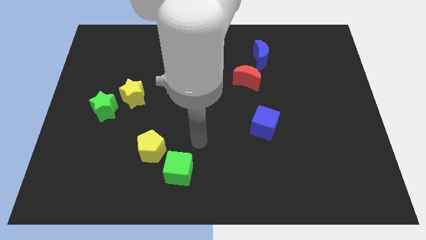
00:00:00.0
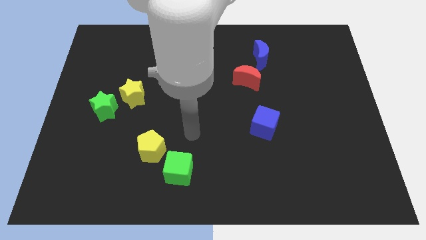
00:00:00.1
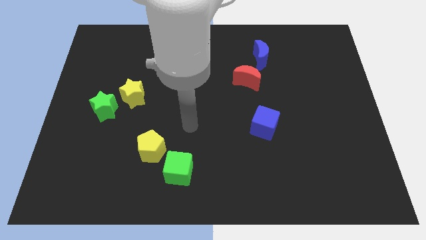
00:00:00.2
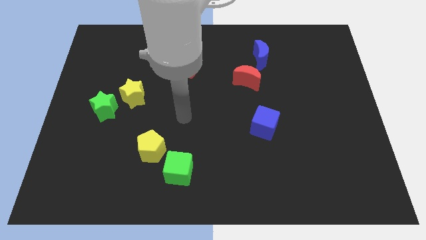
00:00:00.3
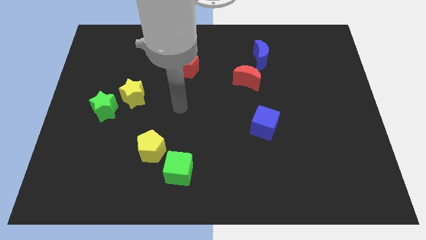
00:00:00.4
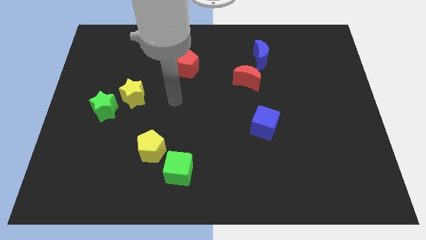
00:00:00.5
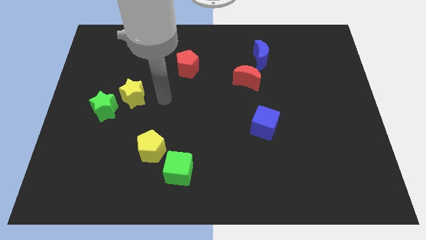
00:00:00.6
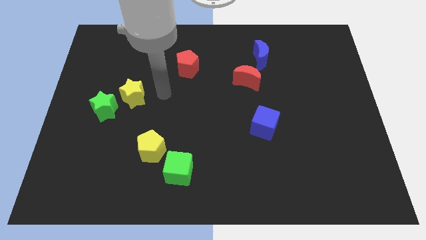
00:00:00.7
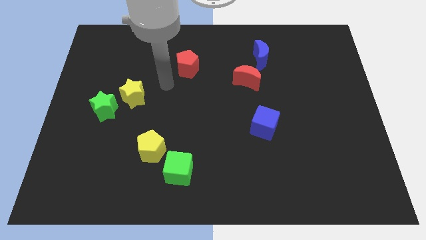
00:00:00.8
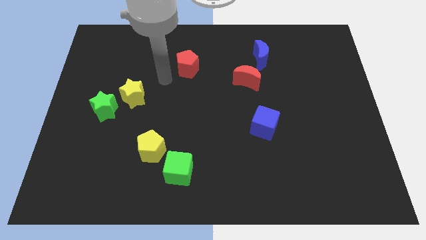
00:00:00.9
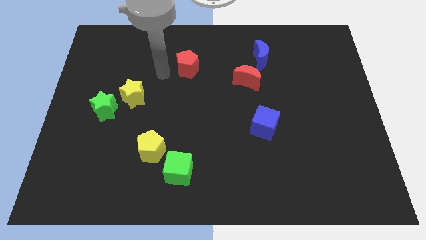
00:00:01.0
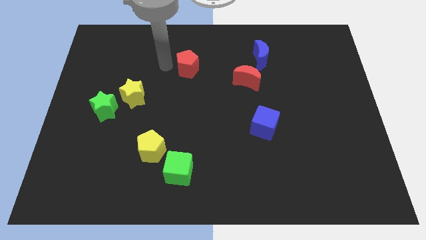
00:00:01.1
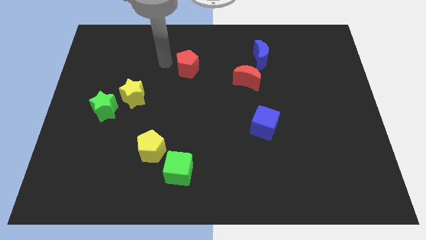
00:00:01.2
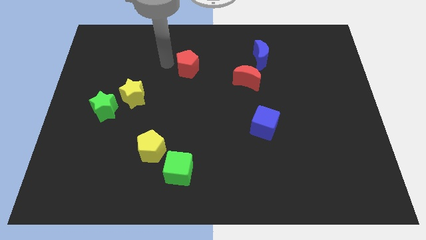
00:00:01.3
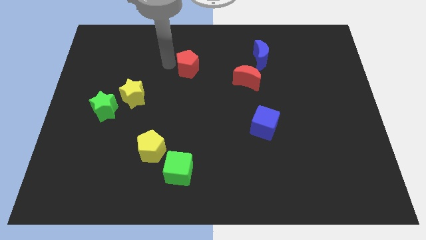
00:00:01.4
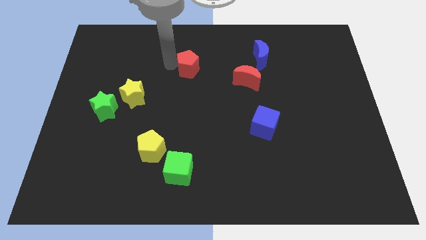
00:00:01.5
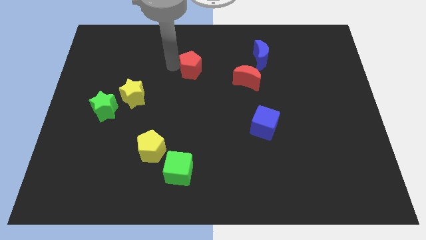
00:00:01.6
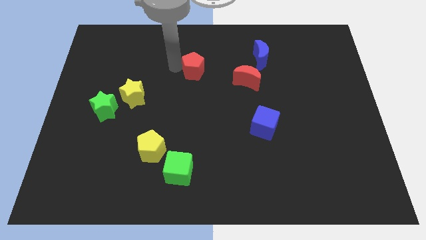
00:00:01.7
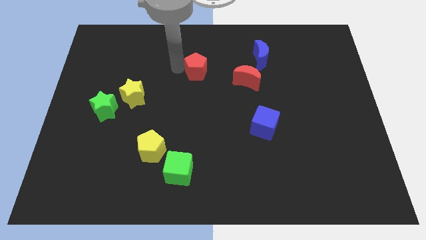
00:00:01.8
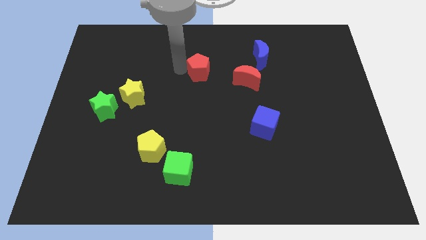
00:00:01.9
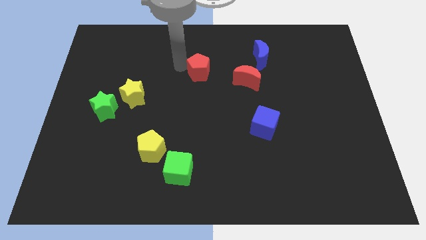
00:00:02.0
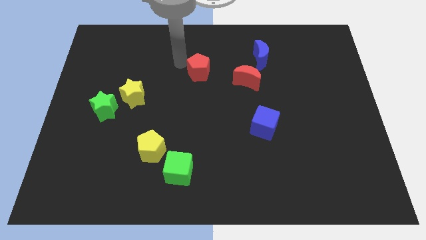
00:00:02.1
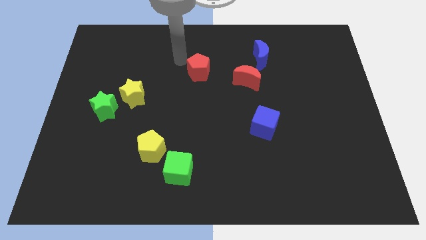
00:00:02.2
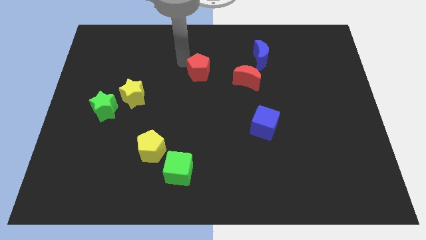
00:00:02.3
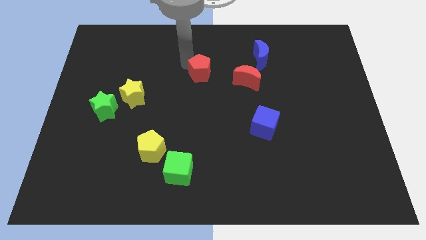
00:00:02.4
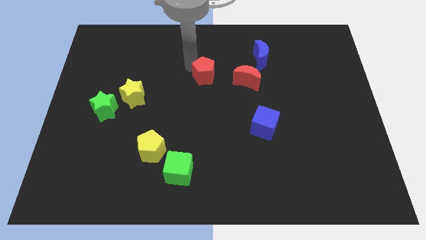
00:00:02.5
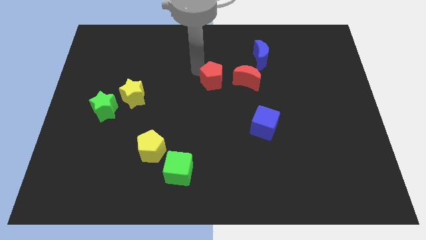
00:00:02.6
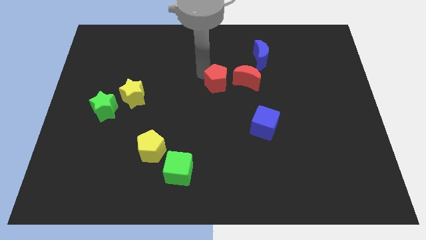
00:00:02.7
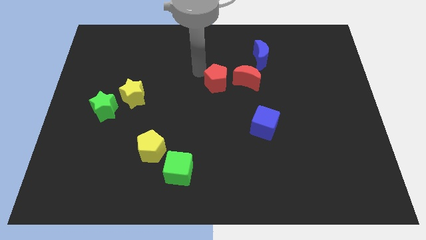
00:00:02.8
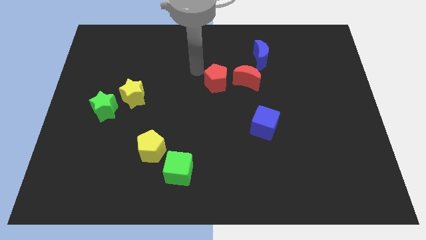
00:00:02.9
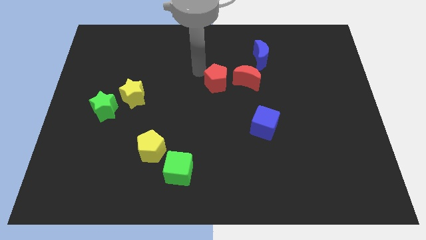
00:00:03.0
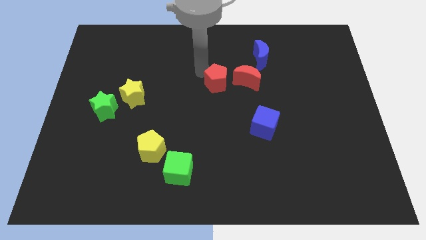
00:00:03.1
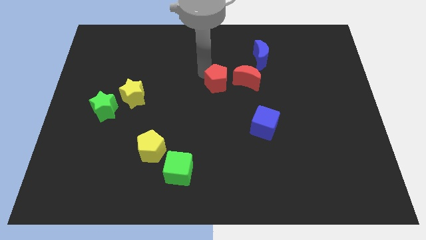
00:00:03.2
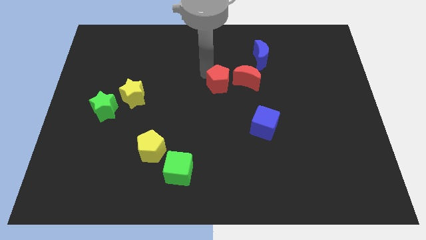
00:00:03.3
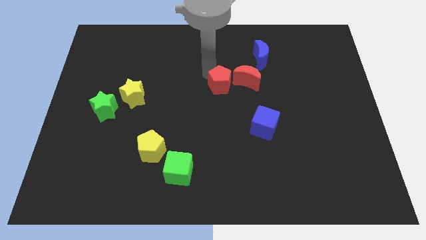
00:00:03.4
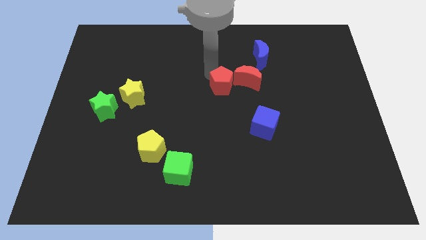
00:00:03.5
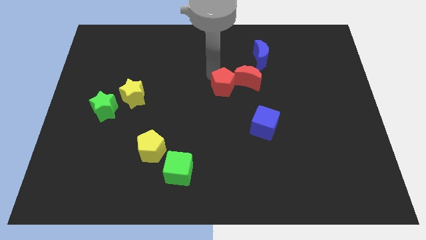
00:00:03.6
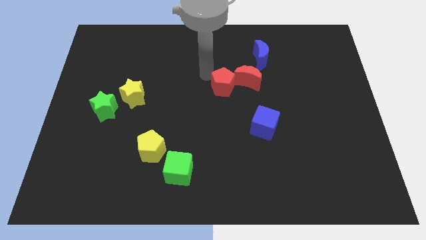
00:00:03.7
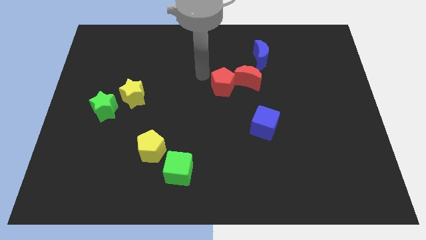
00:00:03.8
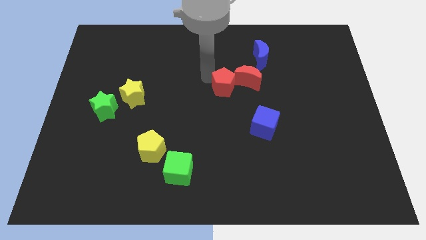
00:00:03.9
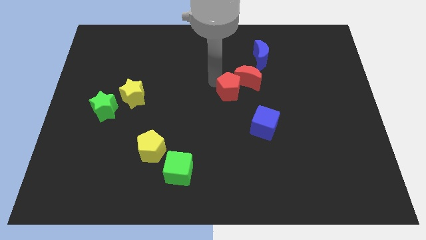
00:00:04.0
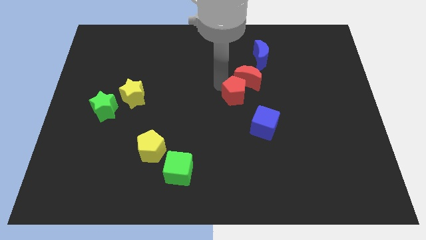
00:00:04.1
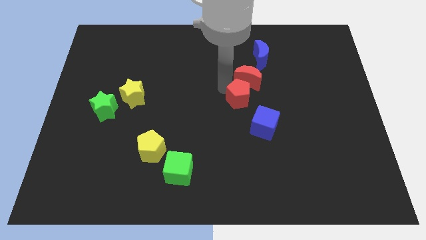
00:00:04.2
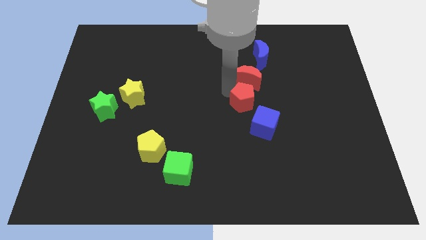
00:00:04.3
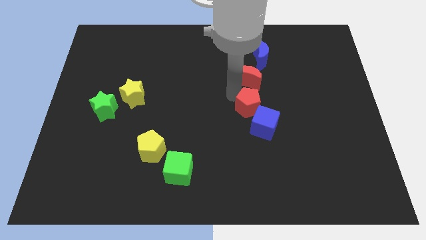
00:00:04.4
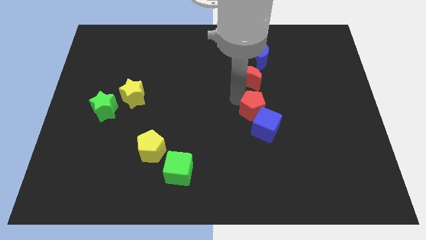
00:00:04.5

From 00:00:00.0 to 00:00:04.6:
slide the red pentagon down and to the right diagonally

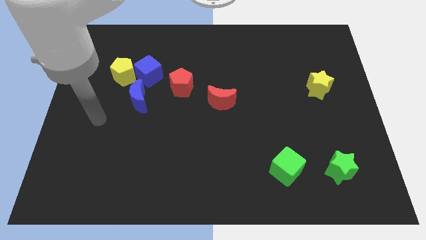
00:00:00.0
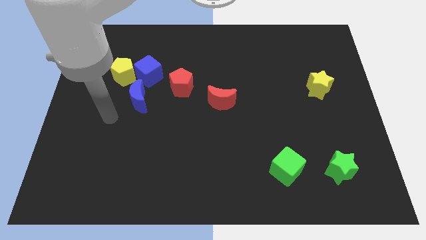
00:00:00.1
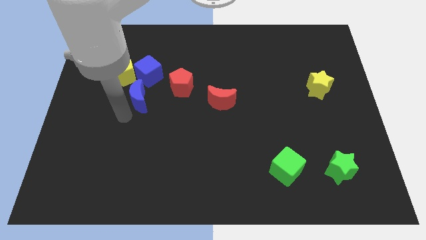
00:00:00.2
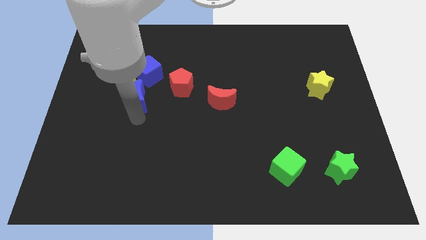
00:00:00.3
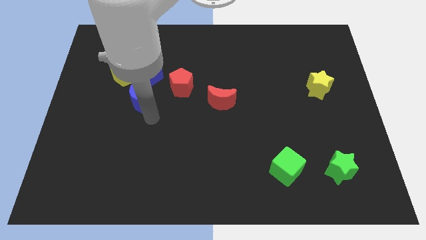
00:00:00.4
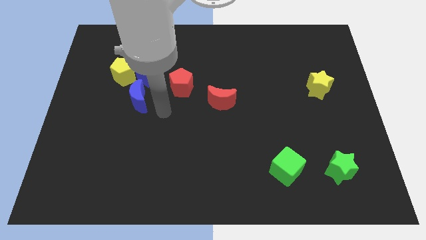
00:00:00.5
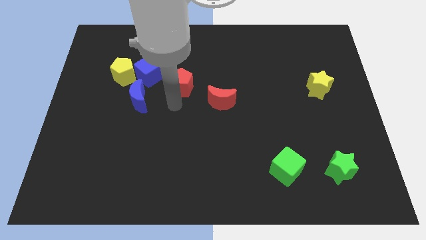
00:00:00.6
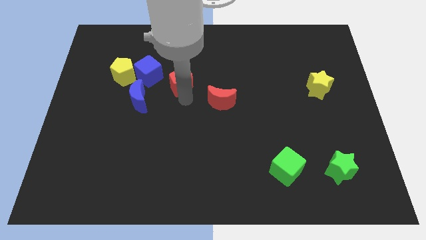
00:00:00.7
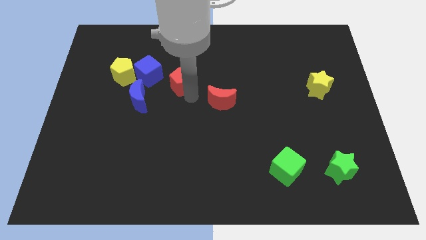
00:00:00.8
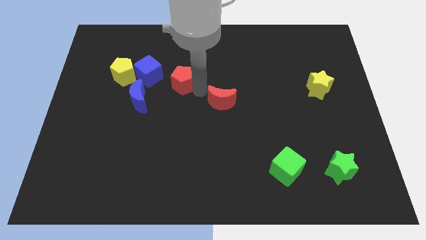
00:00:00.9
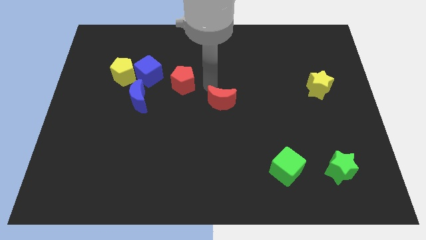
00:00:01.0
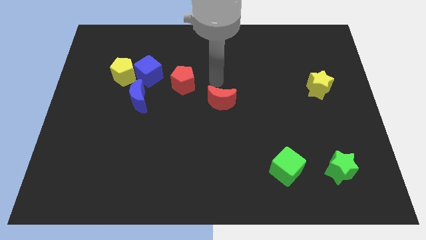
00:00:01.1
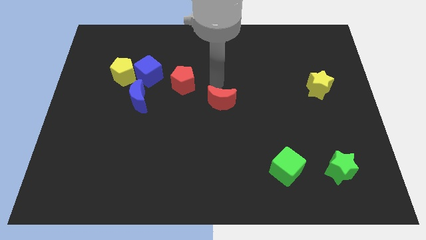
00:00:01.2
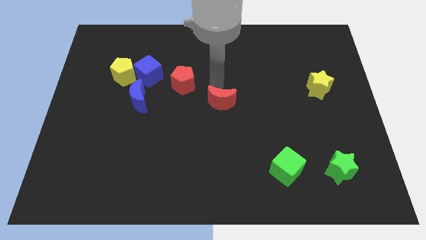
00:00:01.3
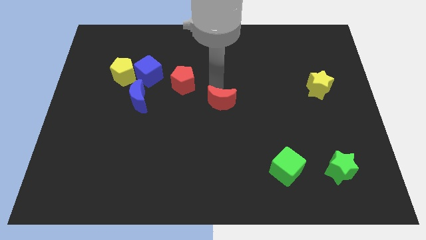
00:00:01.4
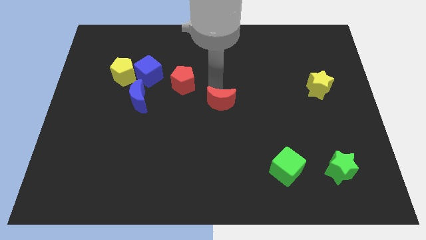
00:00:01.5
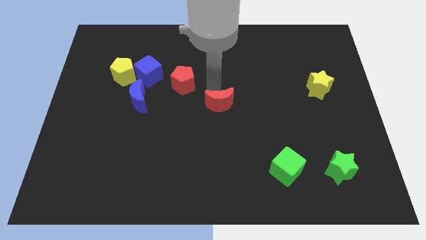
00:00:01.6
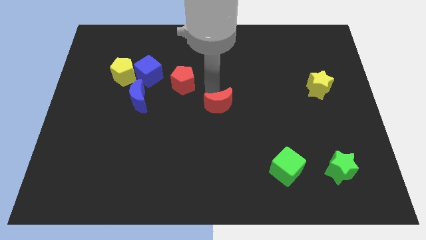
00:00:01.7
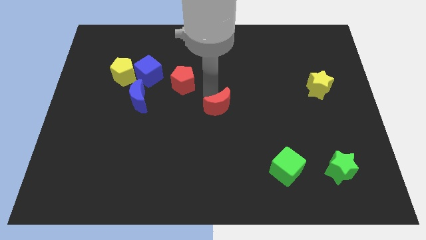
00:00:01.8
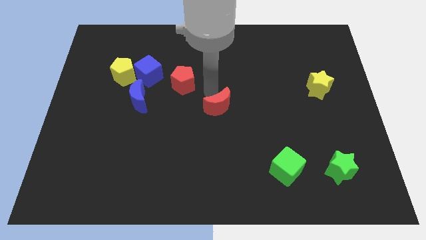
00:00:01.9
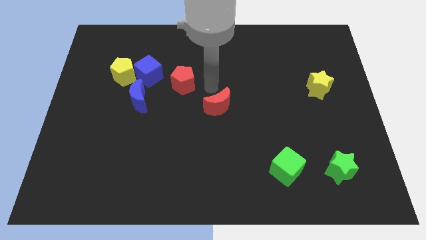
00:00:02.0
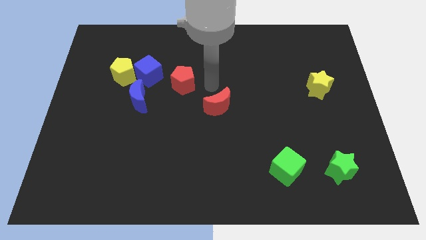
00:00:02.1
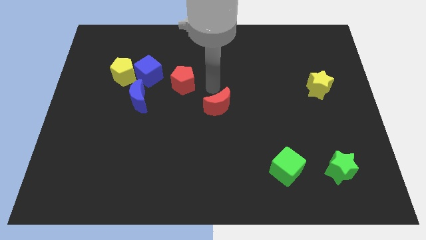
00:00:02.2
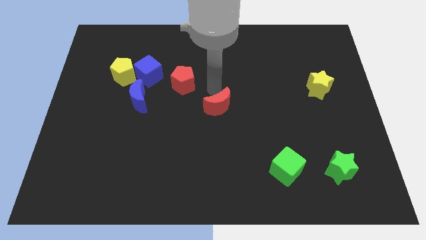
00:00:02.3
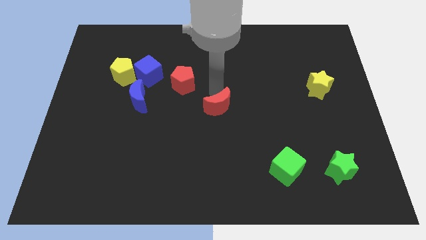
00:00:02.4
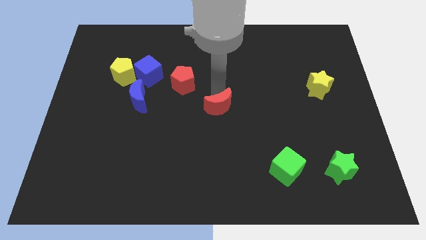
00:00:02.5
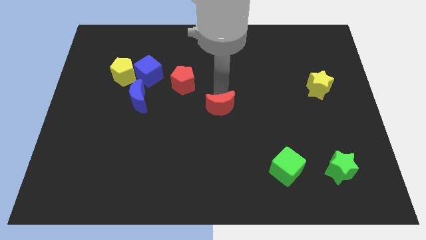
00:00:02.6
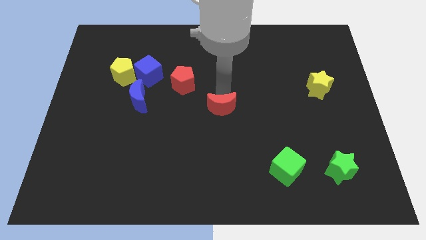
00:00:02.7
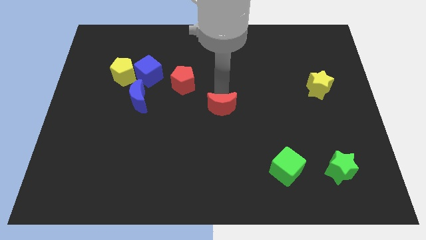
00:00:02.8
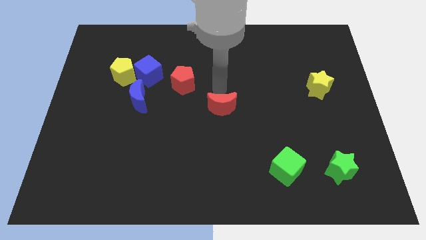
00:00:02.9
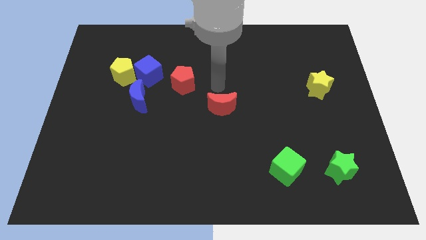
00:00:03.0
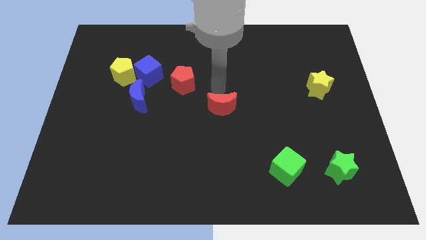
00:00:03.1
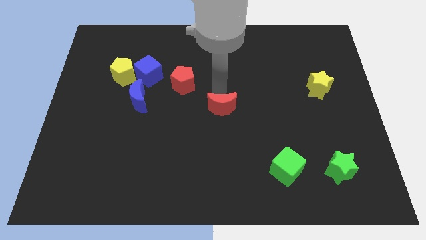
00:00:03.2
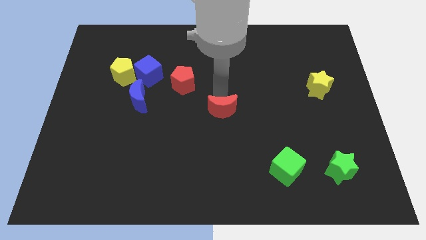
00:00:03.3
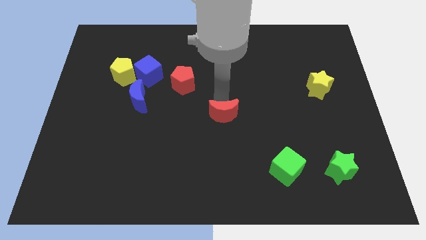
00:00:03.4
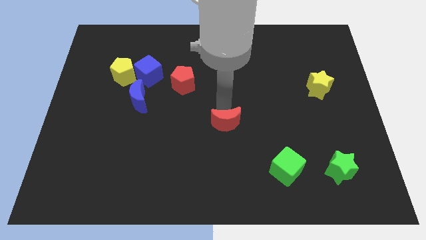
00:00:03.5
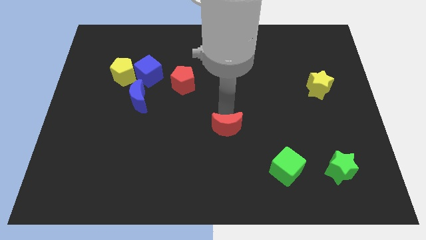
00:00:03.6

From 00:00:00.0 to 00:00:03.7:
slightly push the red moon down
